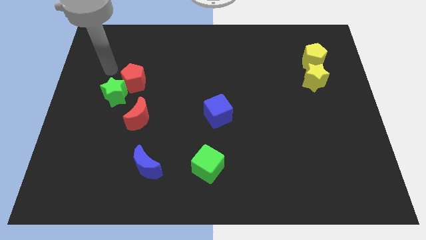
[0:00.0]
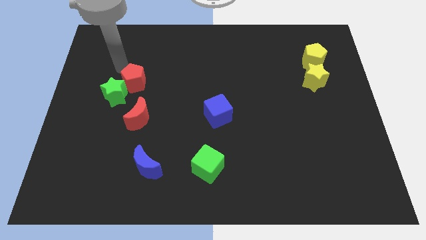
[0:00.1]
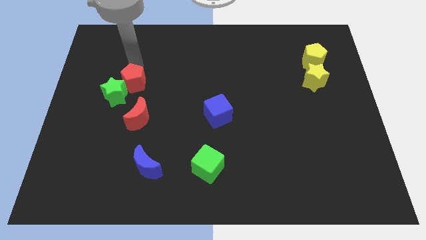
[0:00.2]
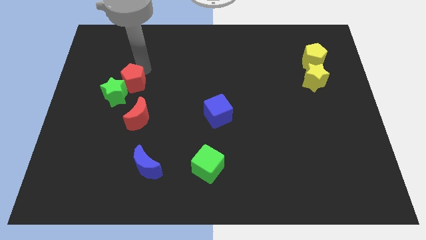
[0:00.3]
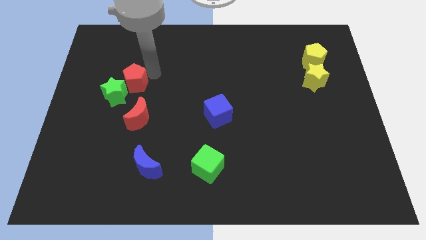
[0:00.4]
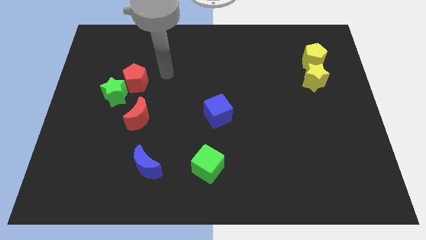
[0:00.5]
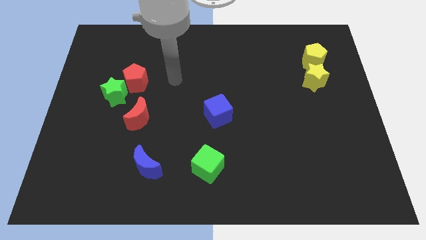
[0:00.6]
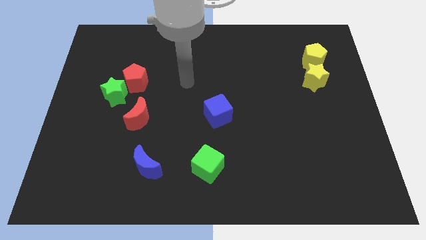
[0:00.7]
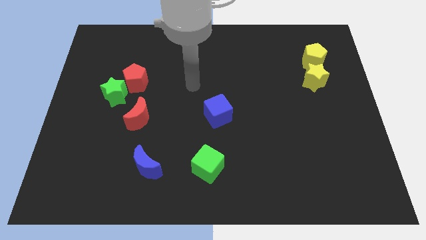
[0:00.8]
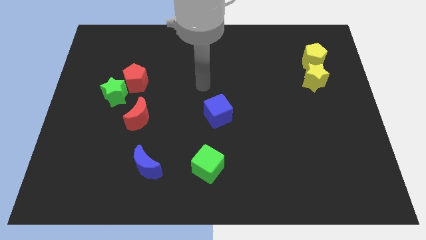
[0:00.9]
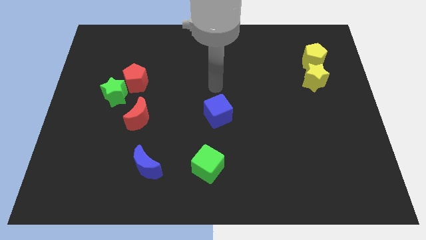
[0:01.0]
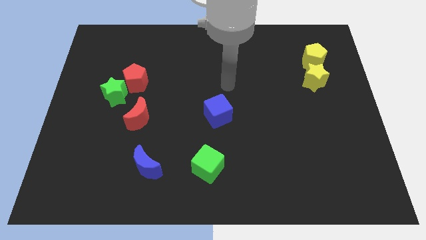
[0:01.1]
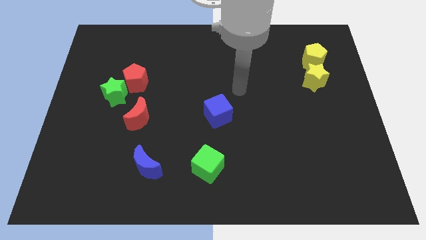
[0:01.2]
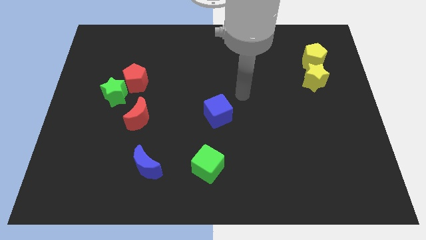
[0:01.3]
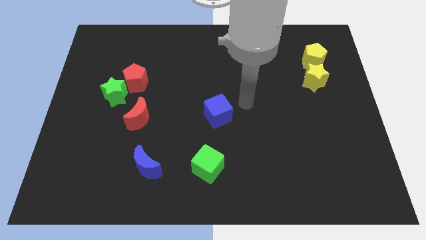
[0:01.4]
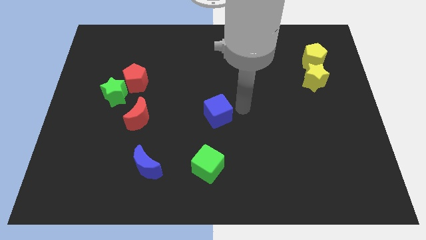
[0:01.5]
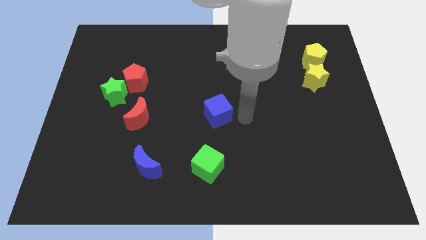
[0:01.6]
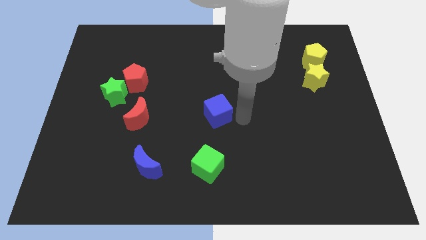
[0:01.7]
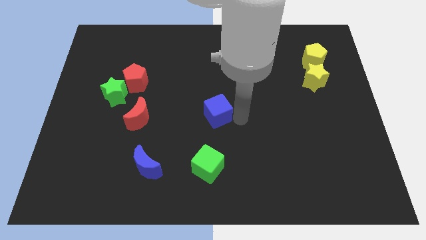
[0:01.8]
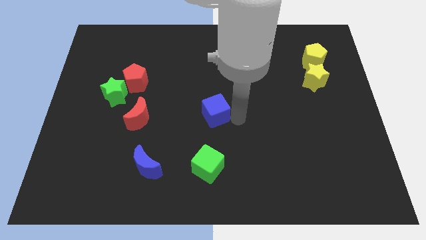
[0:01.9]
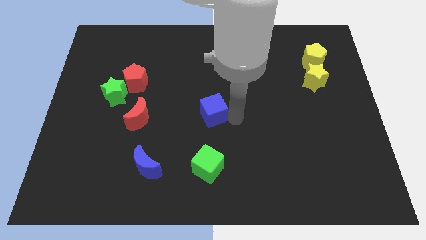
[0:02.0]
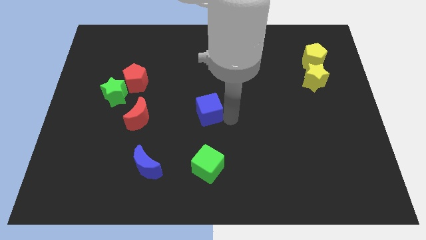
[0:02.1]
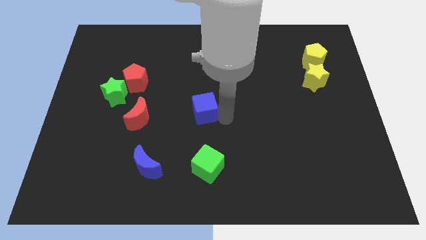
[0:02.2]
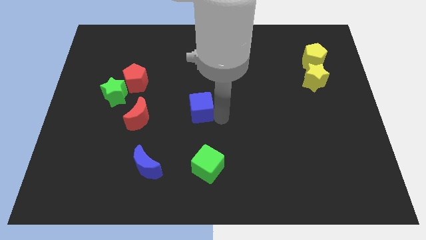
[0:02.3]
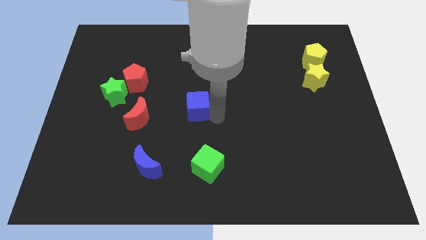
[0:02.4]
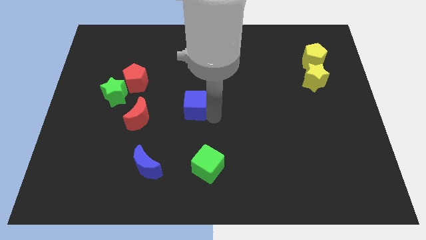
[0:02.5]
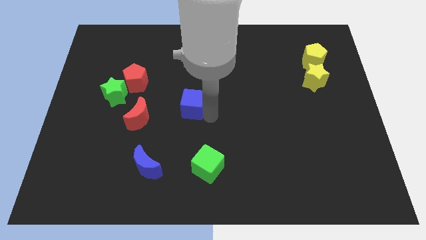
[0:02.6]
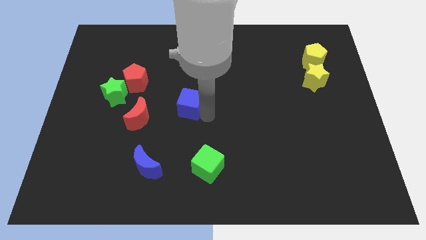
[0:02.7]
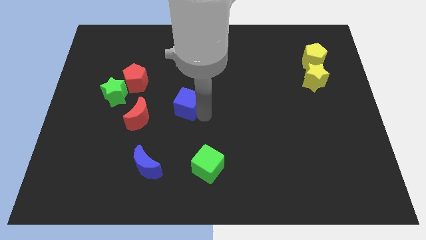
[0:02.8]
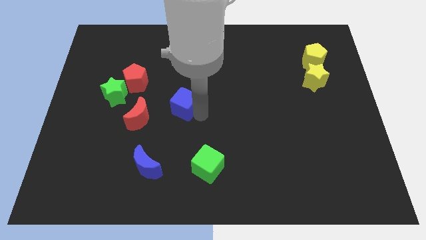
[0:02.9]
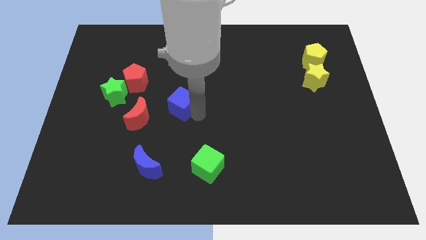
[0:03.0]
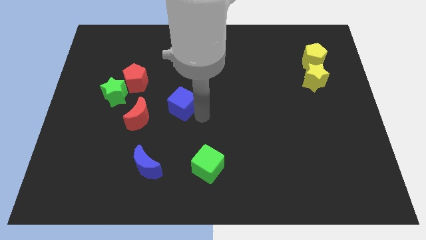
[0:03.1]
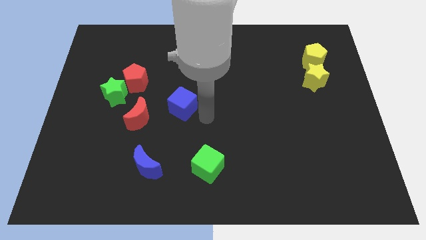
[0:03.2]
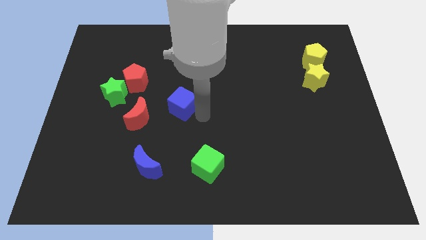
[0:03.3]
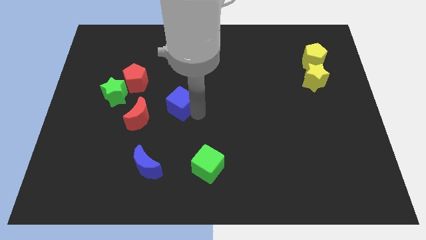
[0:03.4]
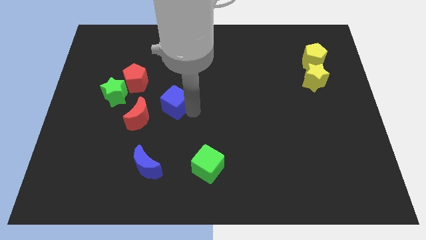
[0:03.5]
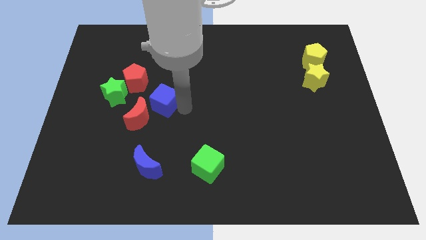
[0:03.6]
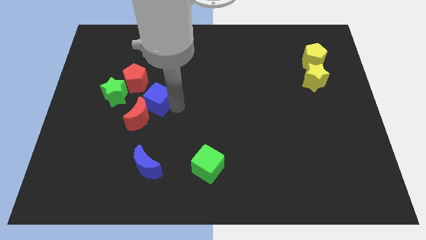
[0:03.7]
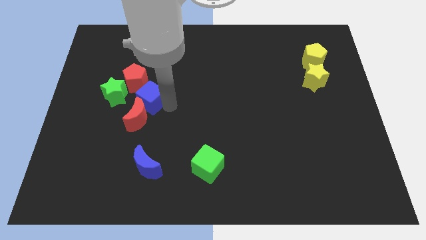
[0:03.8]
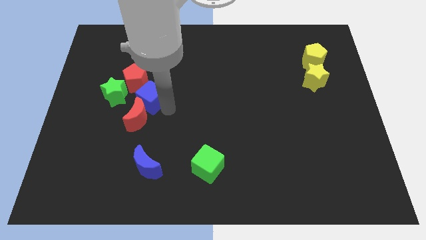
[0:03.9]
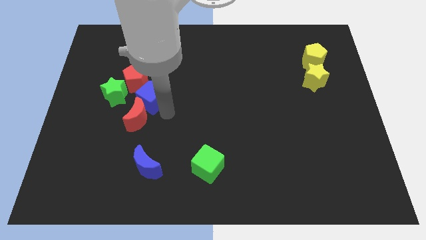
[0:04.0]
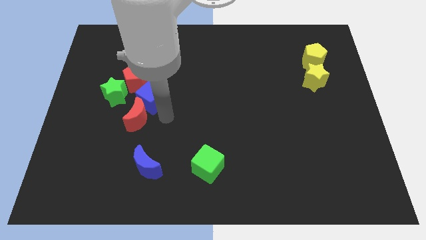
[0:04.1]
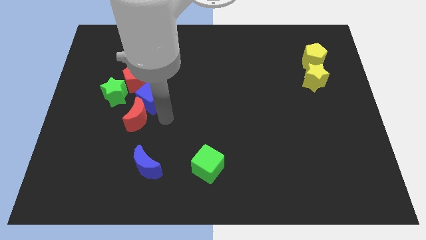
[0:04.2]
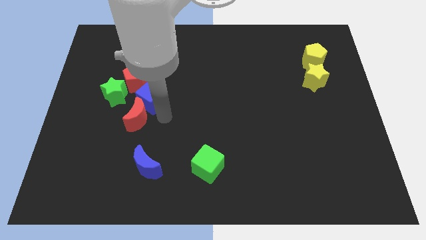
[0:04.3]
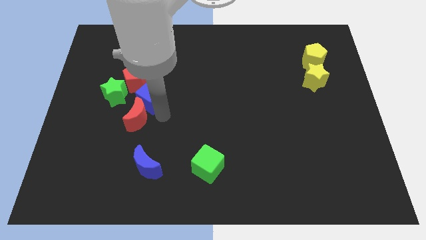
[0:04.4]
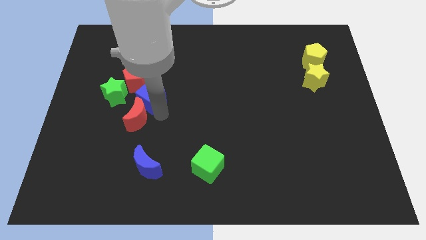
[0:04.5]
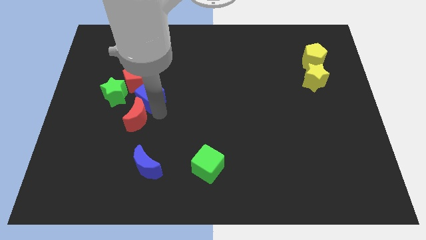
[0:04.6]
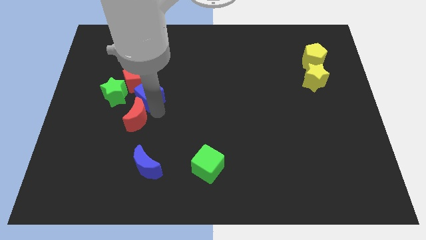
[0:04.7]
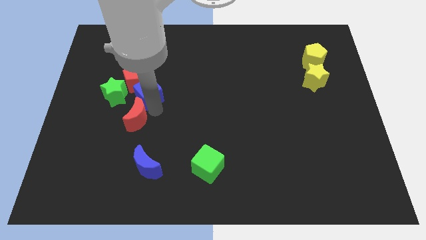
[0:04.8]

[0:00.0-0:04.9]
move the blue cube to the red pentagon

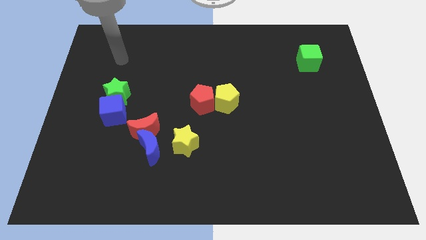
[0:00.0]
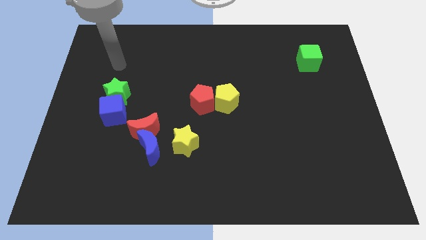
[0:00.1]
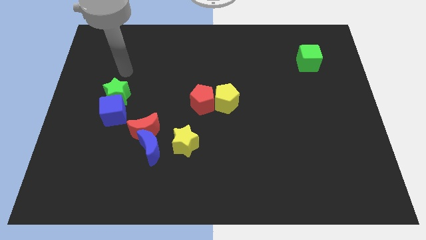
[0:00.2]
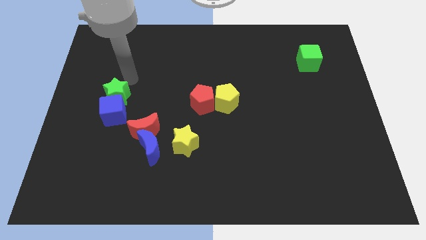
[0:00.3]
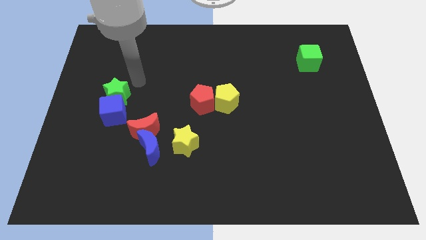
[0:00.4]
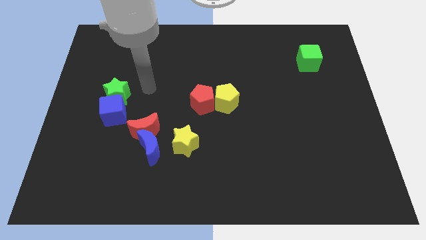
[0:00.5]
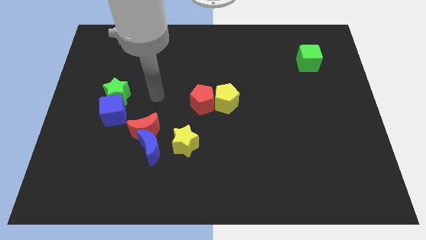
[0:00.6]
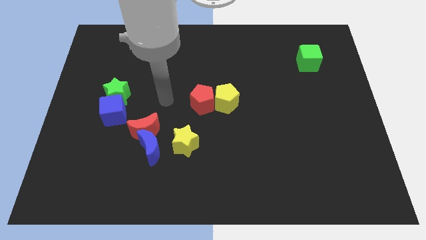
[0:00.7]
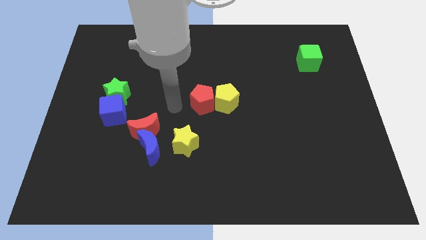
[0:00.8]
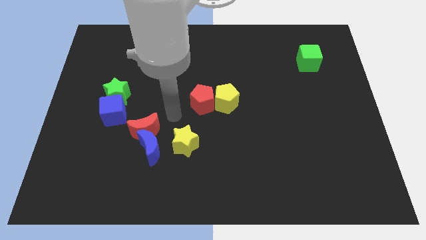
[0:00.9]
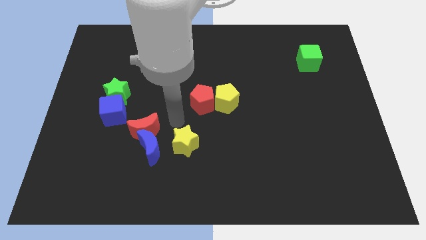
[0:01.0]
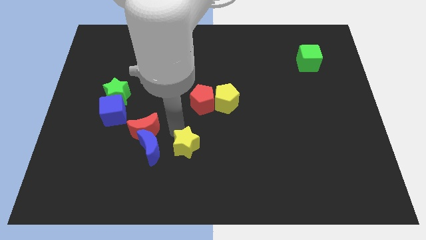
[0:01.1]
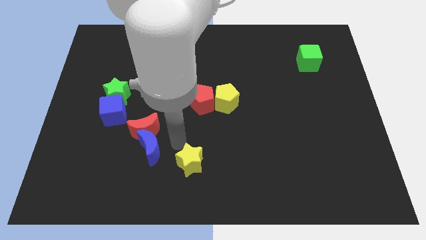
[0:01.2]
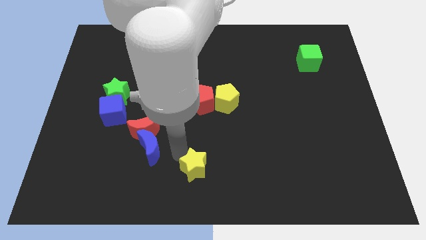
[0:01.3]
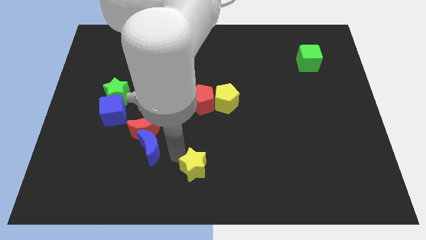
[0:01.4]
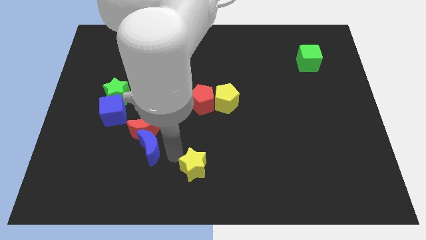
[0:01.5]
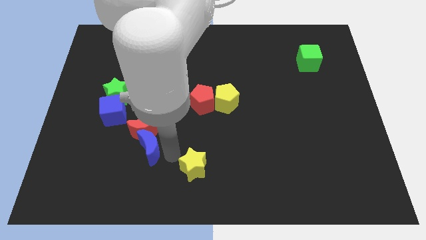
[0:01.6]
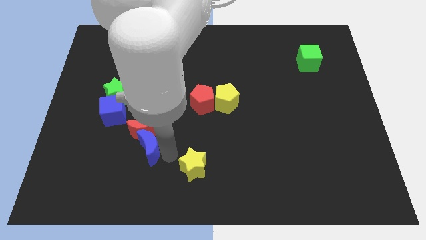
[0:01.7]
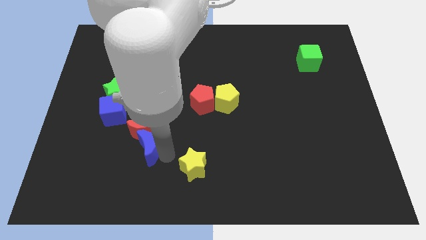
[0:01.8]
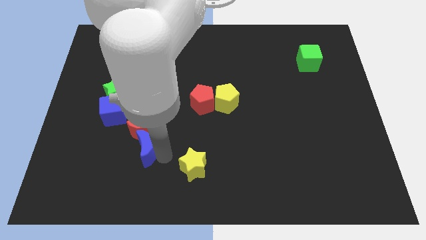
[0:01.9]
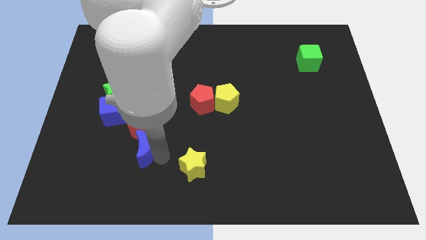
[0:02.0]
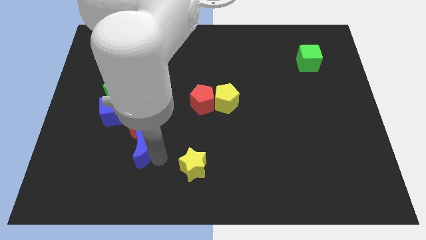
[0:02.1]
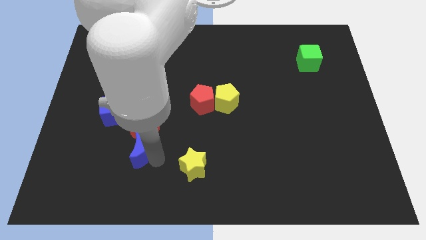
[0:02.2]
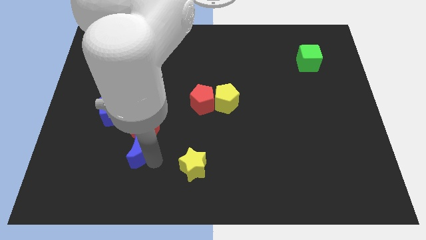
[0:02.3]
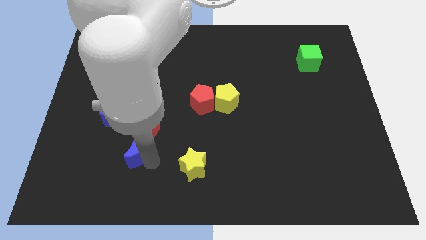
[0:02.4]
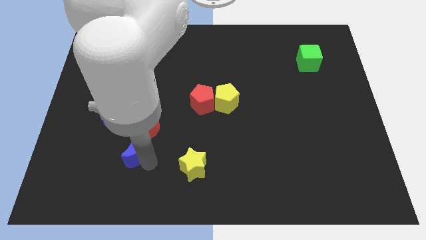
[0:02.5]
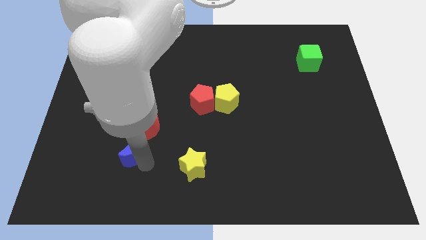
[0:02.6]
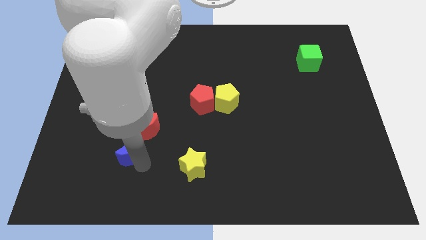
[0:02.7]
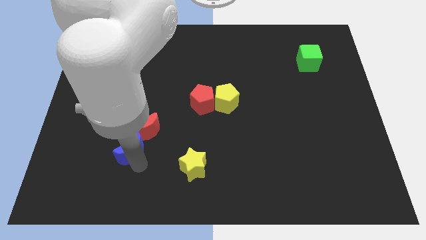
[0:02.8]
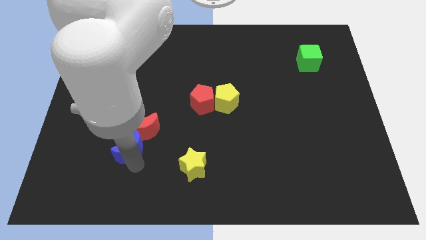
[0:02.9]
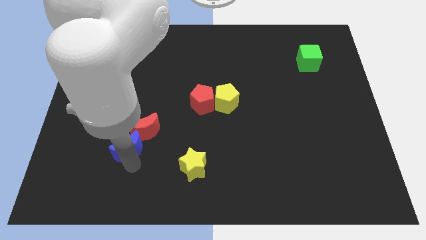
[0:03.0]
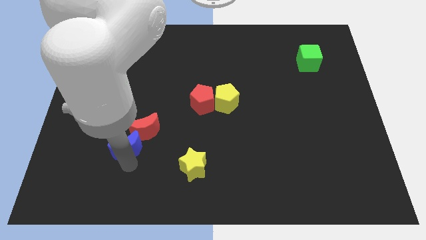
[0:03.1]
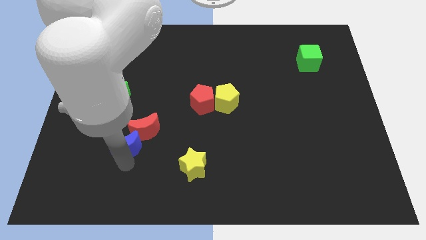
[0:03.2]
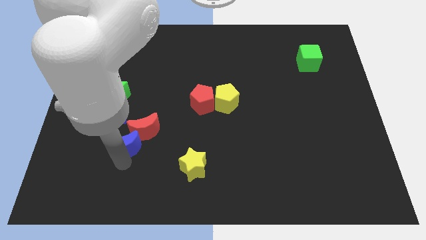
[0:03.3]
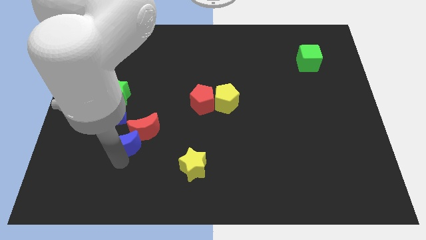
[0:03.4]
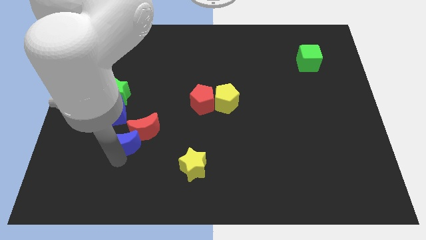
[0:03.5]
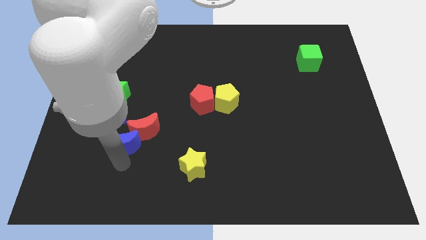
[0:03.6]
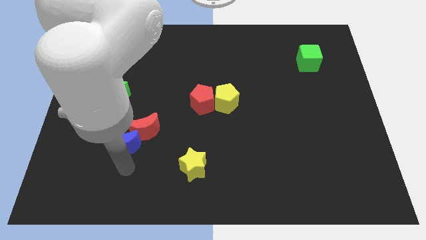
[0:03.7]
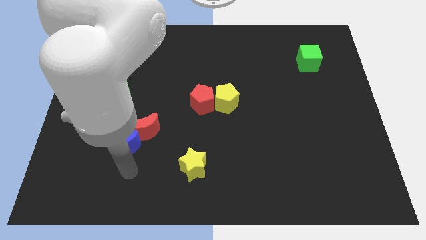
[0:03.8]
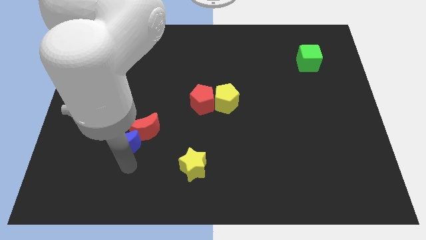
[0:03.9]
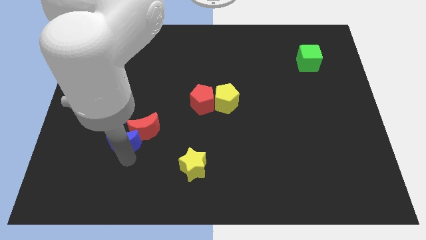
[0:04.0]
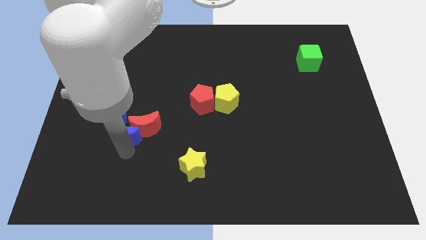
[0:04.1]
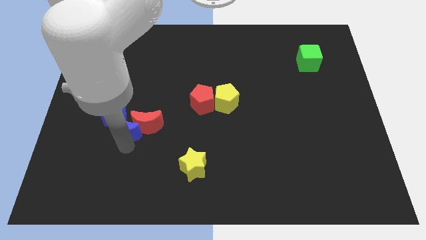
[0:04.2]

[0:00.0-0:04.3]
slide the blue moon towards the blue cube
